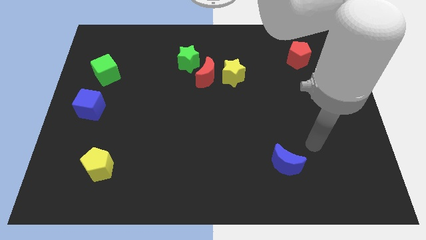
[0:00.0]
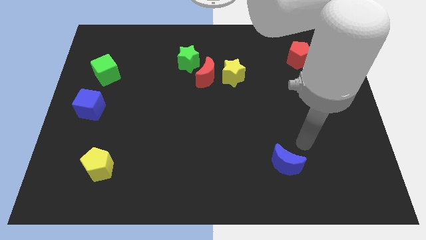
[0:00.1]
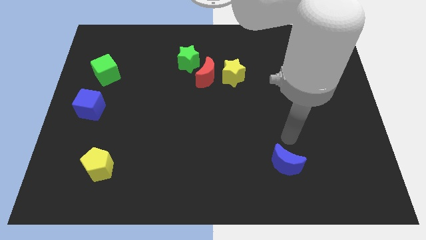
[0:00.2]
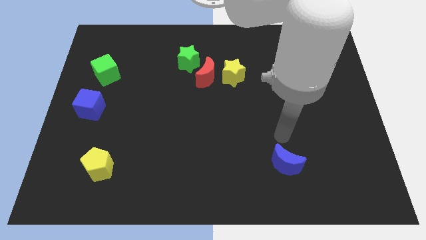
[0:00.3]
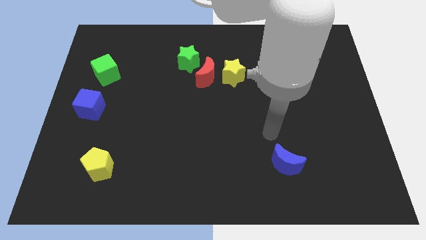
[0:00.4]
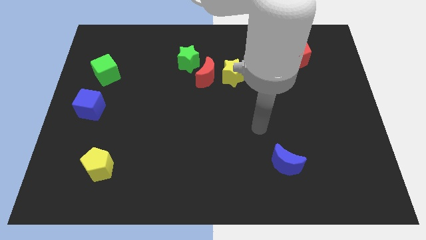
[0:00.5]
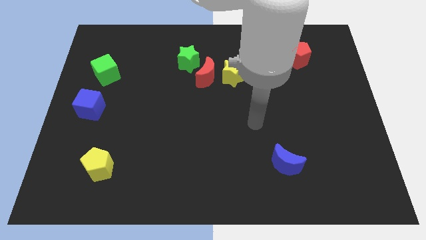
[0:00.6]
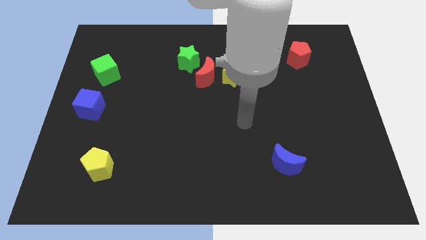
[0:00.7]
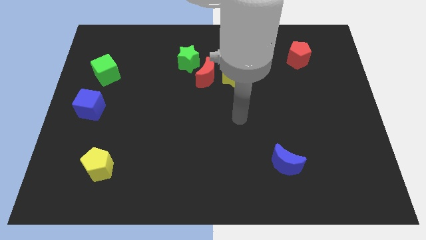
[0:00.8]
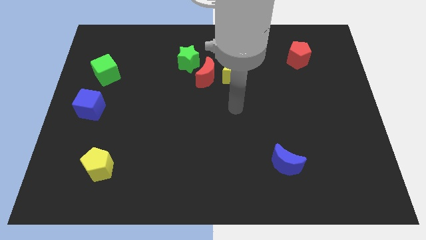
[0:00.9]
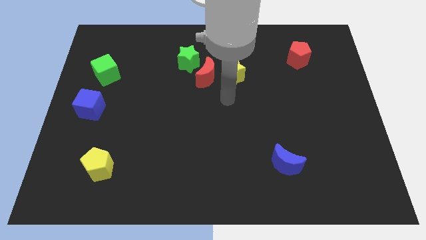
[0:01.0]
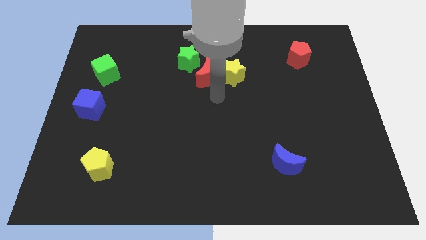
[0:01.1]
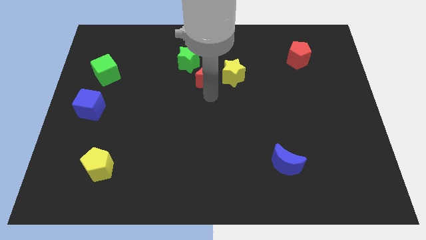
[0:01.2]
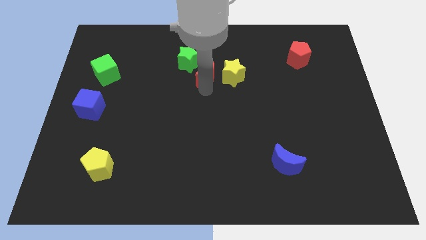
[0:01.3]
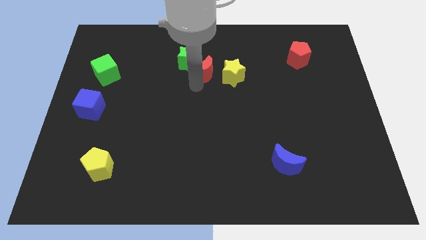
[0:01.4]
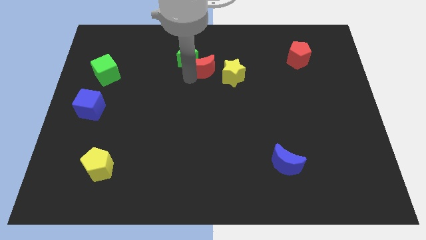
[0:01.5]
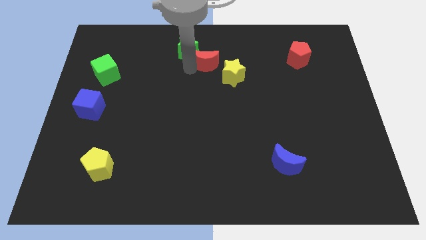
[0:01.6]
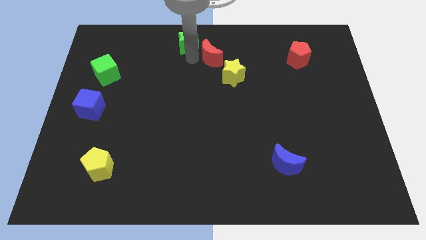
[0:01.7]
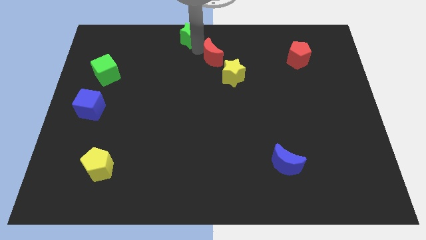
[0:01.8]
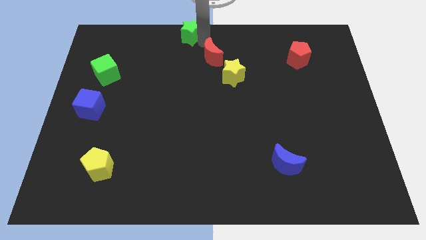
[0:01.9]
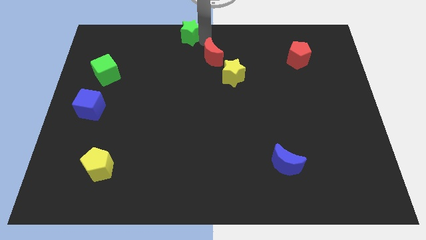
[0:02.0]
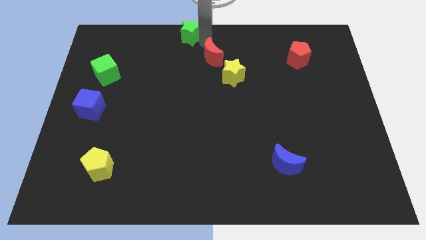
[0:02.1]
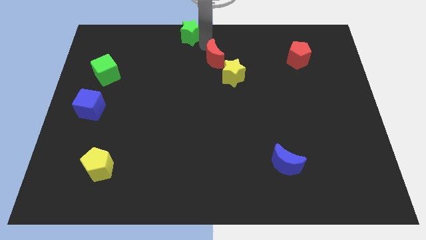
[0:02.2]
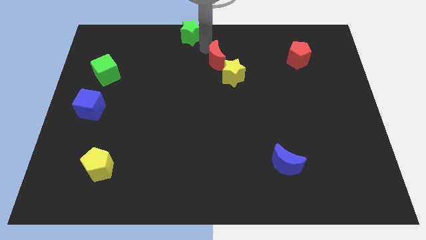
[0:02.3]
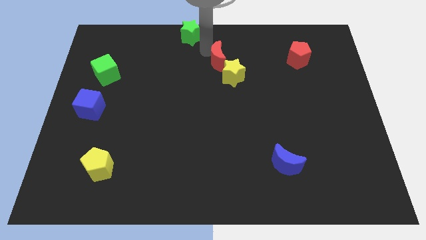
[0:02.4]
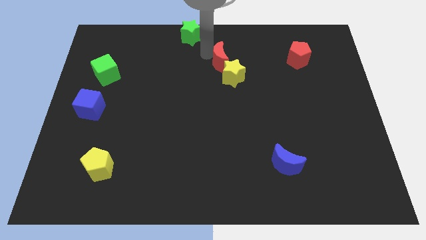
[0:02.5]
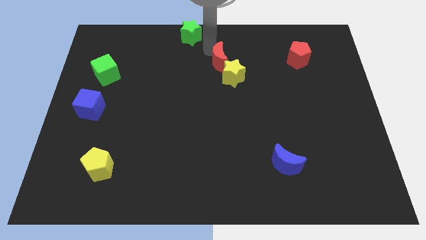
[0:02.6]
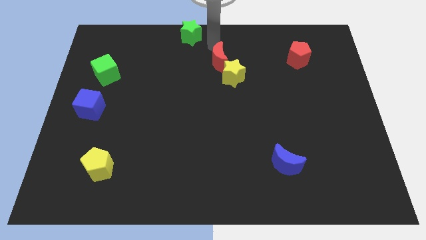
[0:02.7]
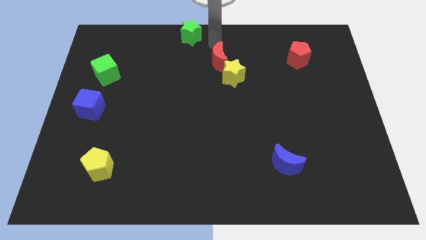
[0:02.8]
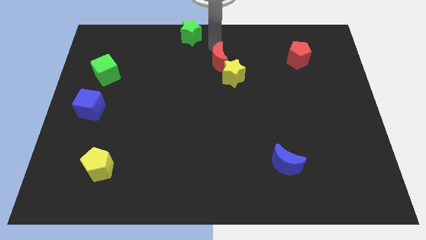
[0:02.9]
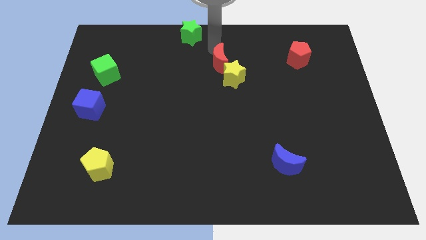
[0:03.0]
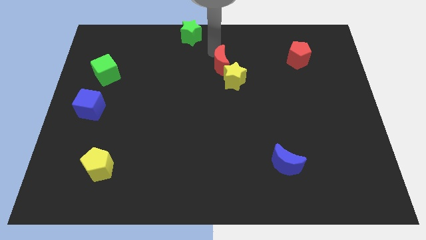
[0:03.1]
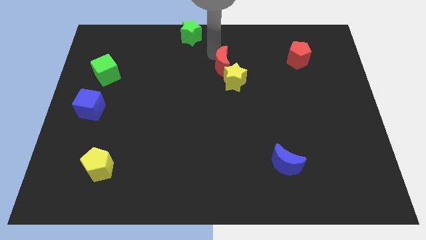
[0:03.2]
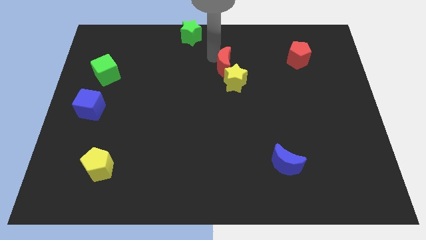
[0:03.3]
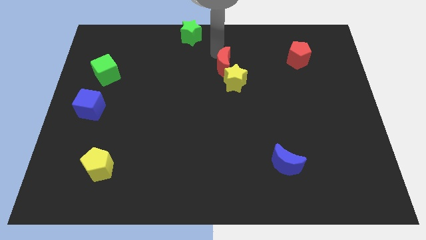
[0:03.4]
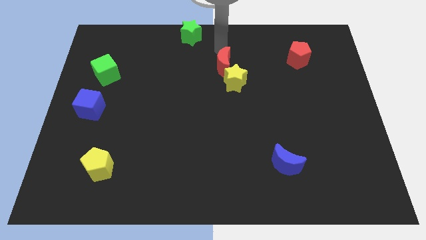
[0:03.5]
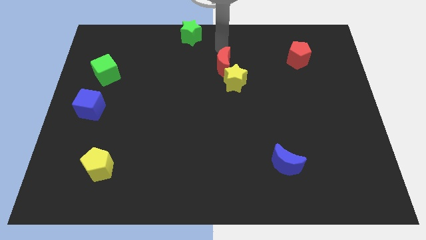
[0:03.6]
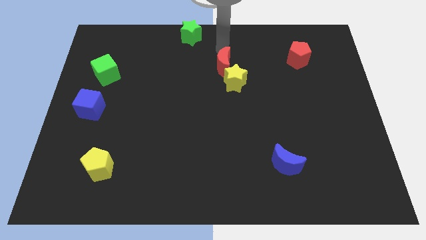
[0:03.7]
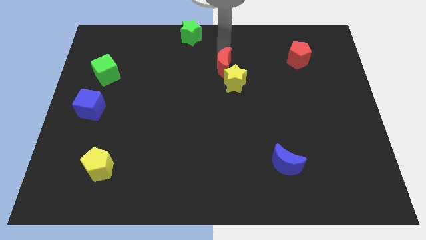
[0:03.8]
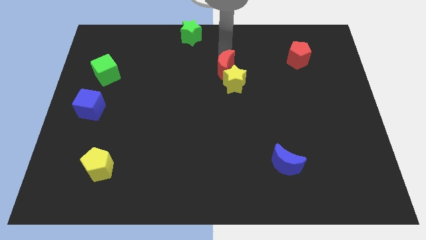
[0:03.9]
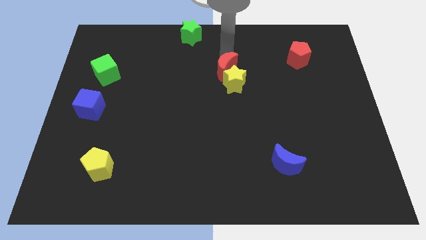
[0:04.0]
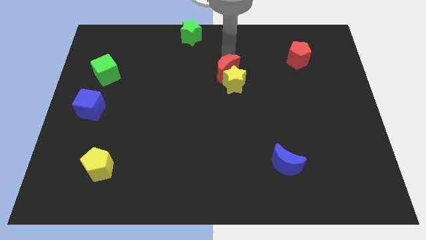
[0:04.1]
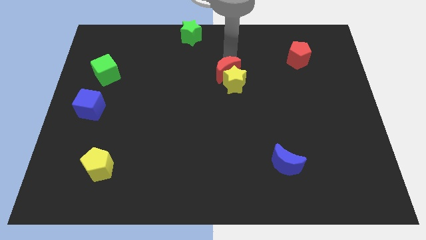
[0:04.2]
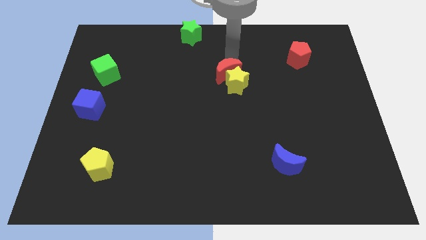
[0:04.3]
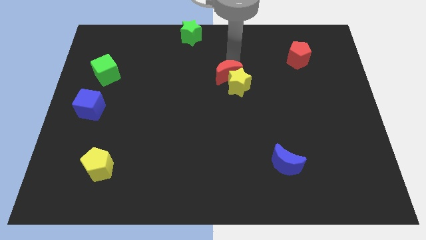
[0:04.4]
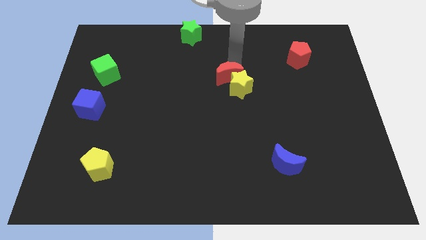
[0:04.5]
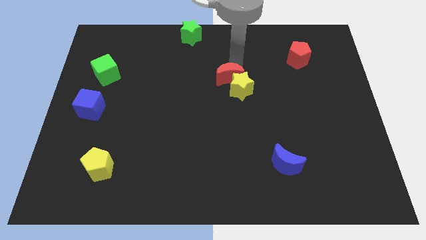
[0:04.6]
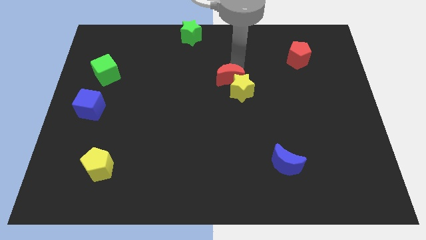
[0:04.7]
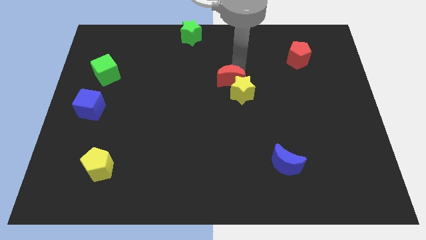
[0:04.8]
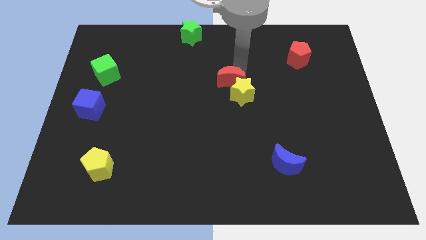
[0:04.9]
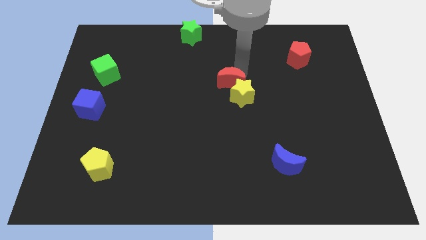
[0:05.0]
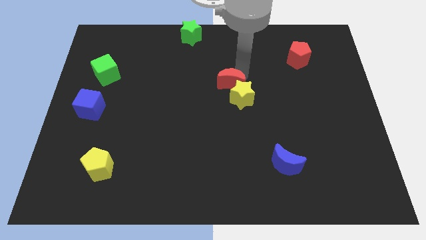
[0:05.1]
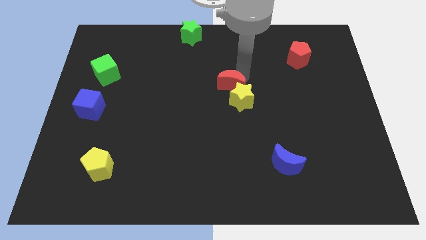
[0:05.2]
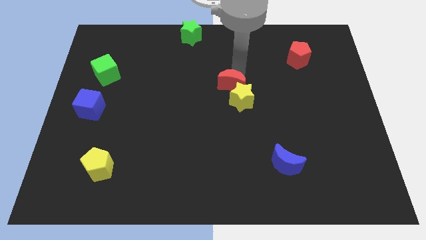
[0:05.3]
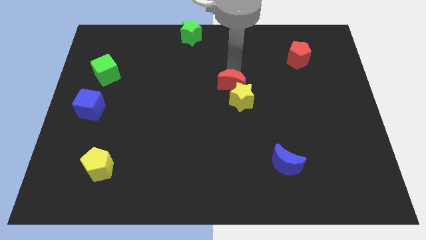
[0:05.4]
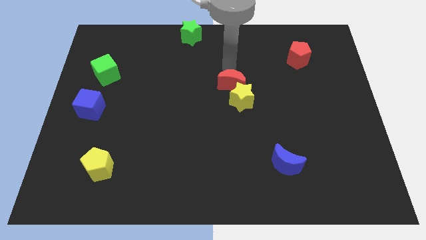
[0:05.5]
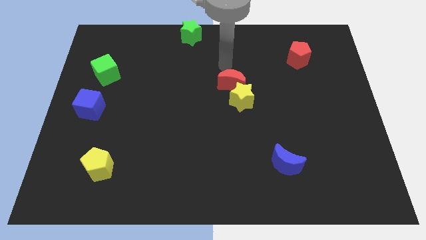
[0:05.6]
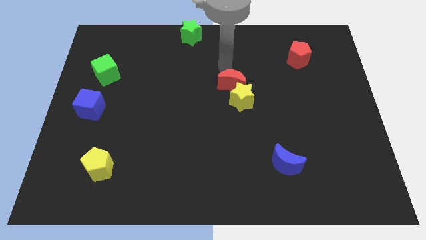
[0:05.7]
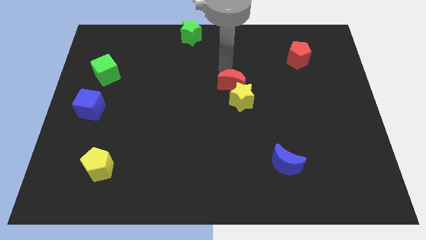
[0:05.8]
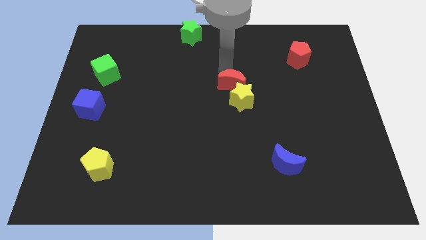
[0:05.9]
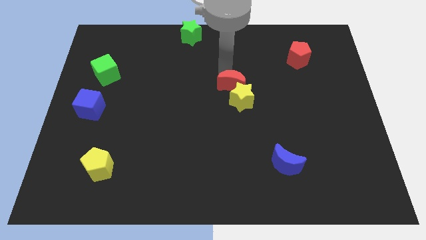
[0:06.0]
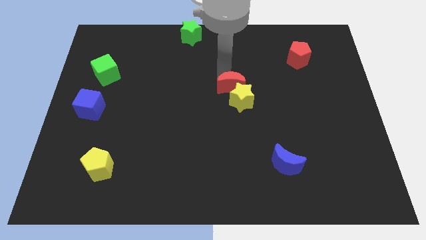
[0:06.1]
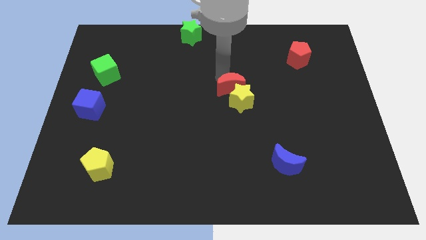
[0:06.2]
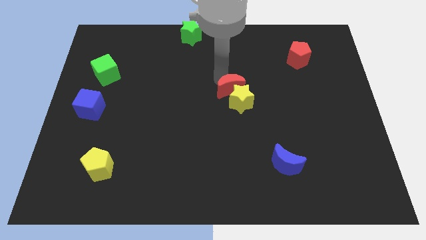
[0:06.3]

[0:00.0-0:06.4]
push the red moon down and then right a little

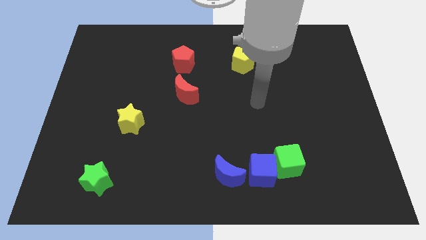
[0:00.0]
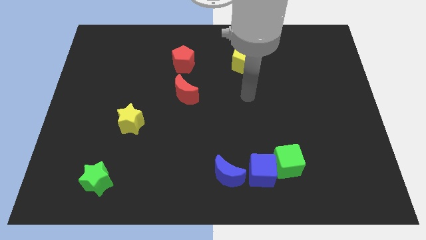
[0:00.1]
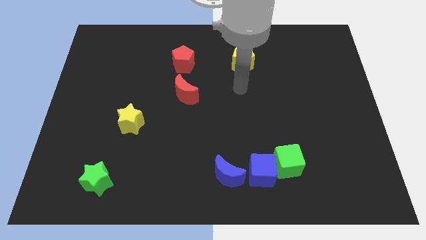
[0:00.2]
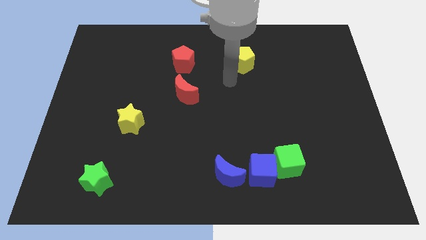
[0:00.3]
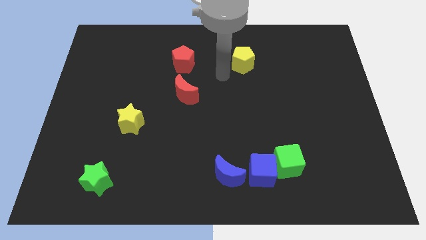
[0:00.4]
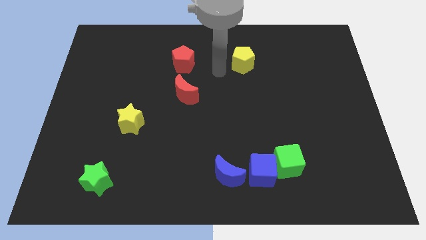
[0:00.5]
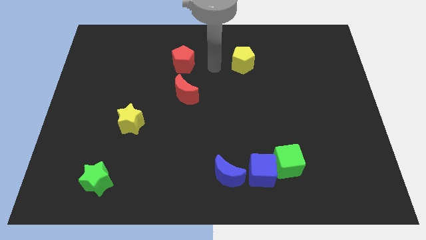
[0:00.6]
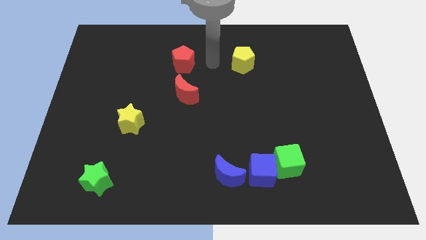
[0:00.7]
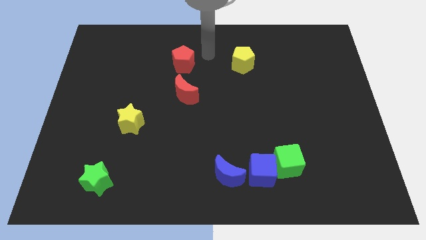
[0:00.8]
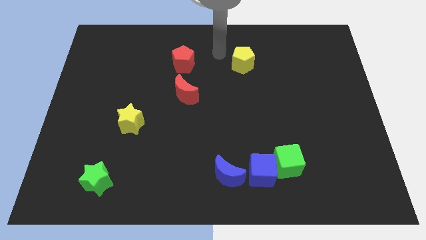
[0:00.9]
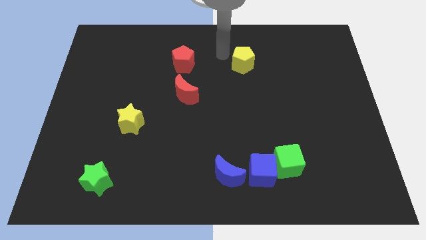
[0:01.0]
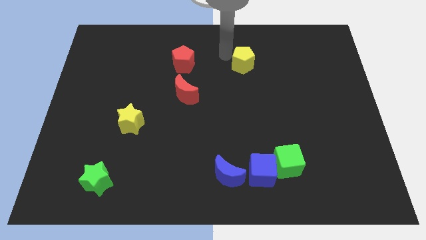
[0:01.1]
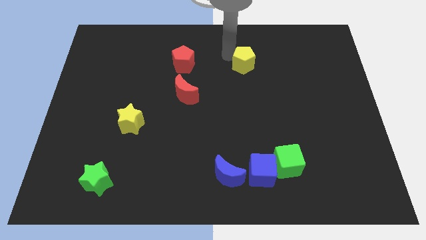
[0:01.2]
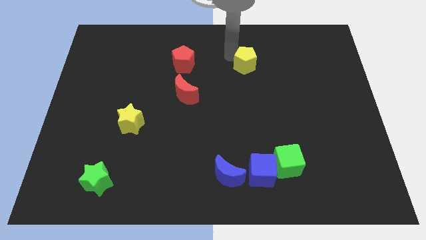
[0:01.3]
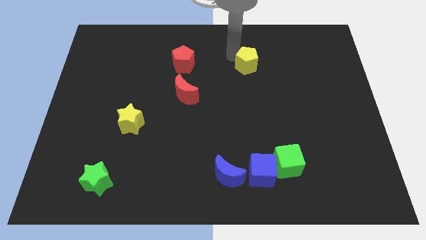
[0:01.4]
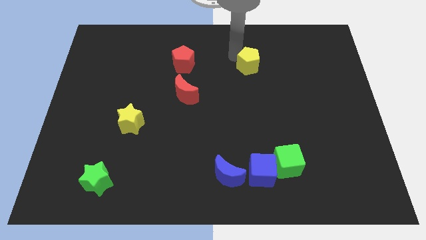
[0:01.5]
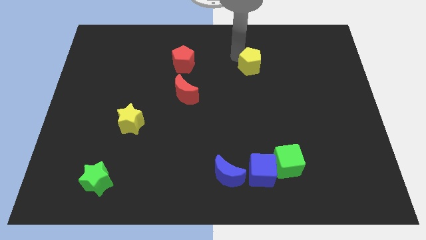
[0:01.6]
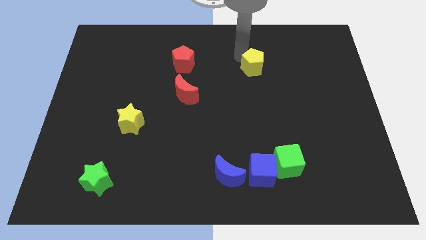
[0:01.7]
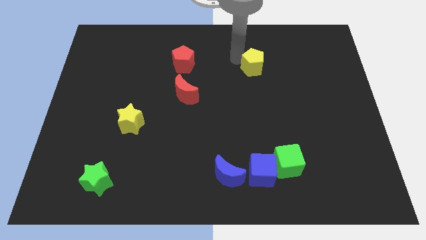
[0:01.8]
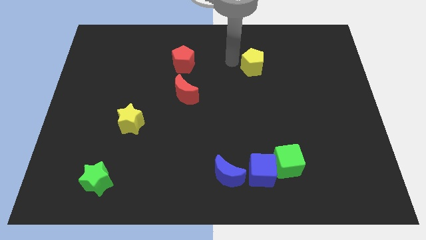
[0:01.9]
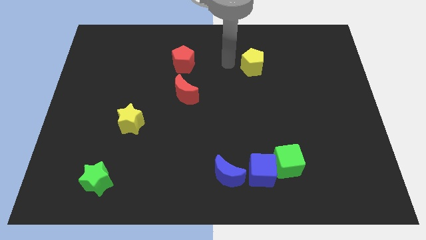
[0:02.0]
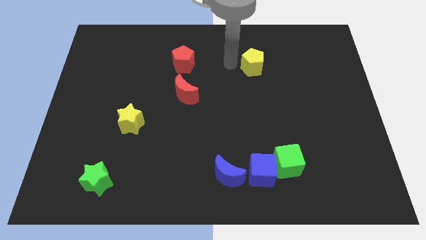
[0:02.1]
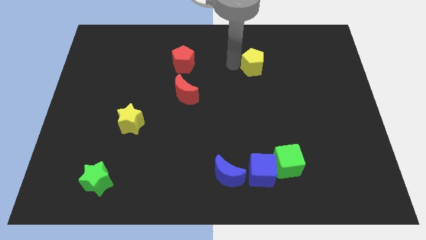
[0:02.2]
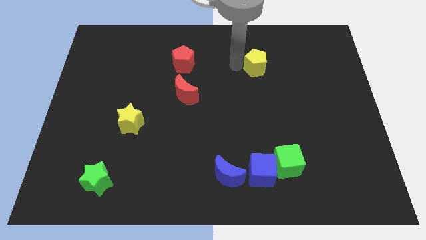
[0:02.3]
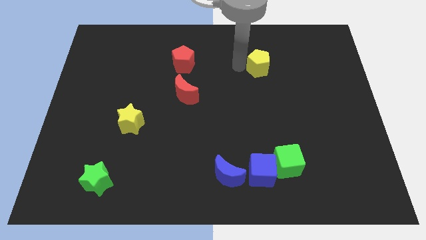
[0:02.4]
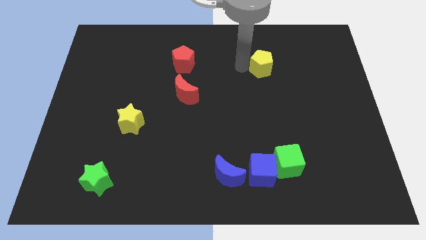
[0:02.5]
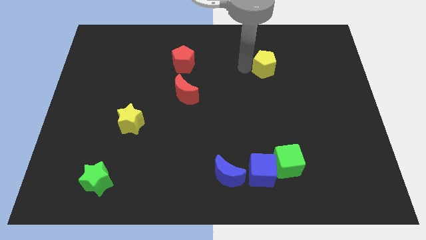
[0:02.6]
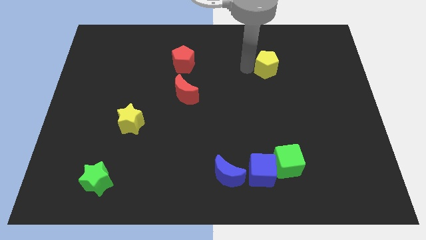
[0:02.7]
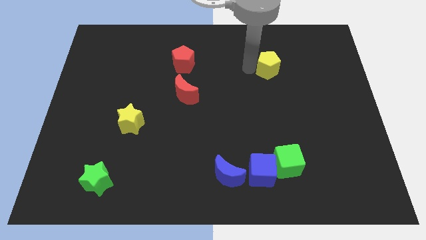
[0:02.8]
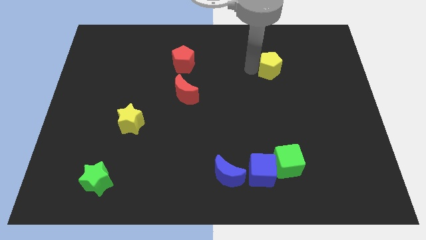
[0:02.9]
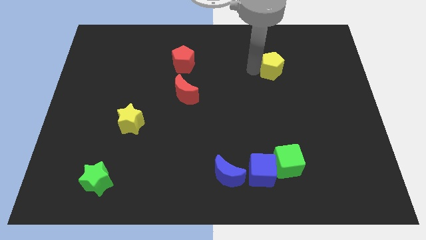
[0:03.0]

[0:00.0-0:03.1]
slightly slide the yellow pentagon right
